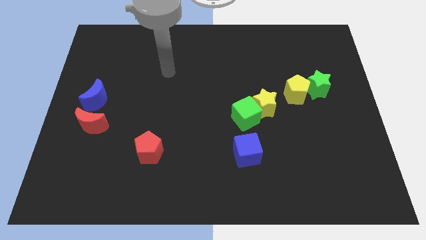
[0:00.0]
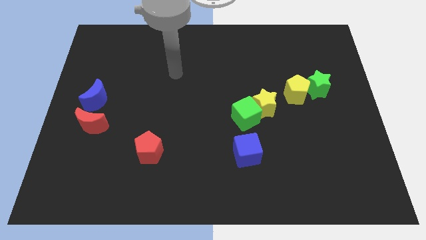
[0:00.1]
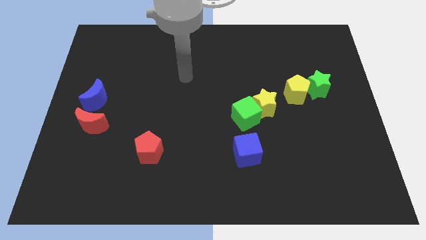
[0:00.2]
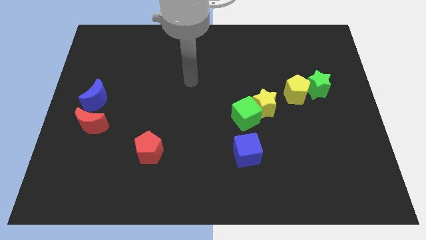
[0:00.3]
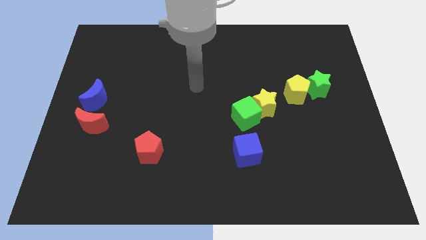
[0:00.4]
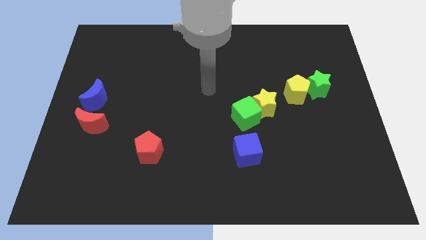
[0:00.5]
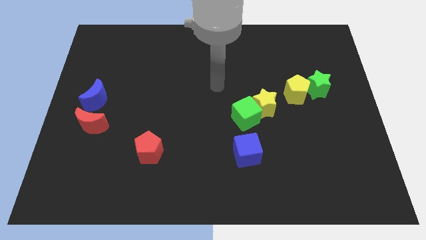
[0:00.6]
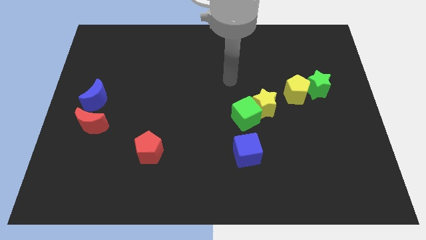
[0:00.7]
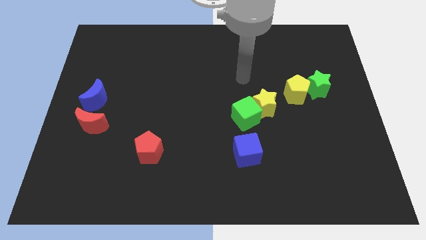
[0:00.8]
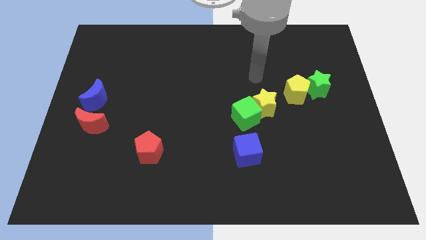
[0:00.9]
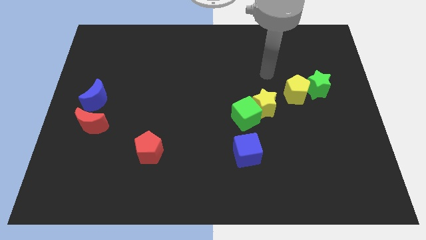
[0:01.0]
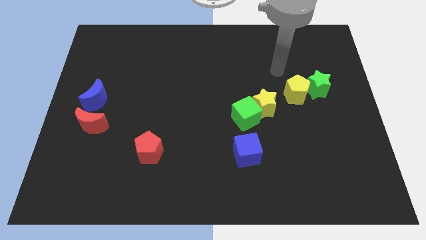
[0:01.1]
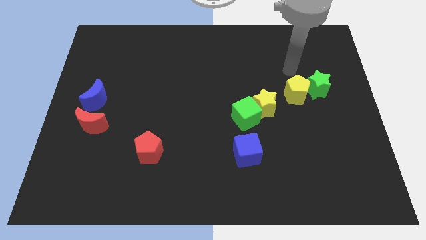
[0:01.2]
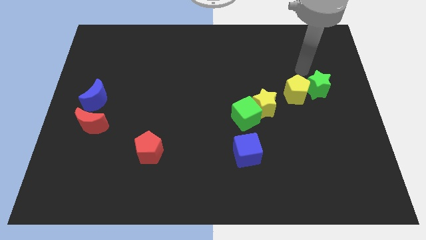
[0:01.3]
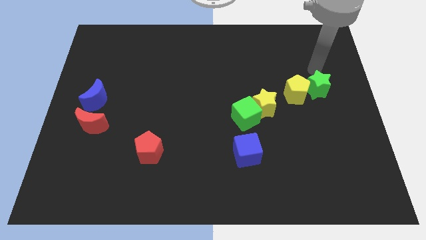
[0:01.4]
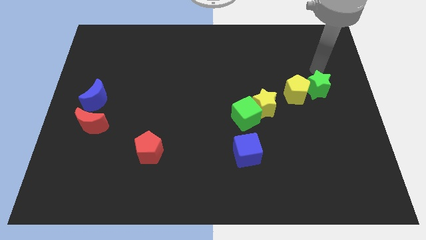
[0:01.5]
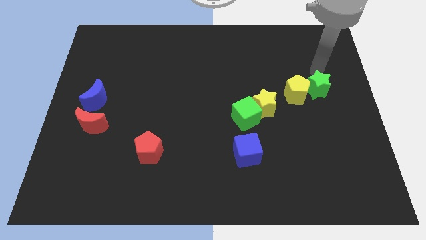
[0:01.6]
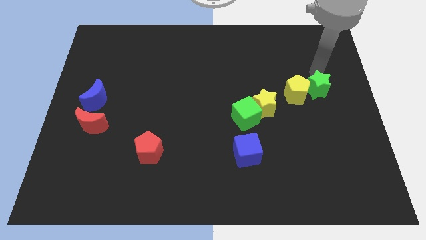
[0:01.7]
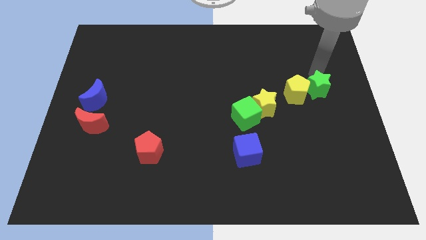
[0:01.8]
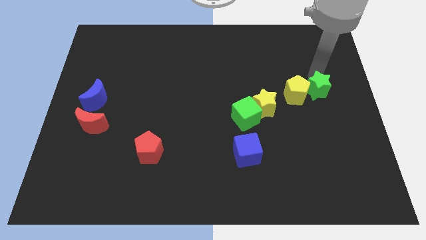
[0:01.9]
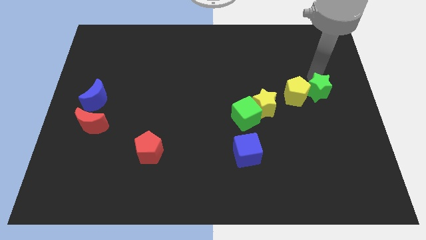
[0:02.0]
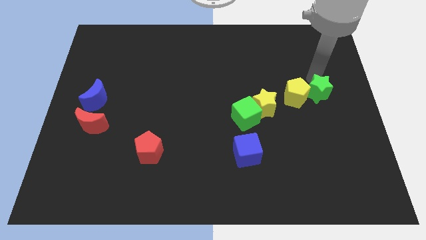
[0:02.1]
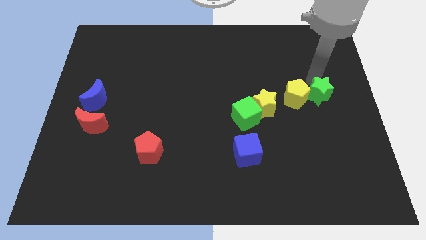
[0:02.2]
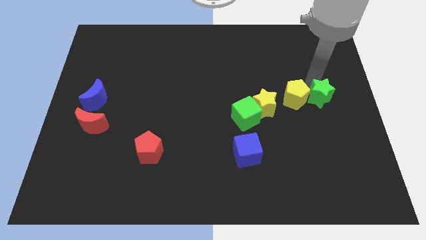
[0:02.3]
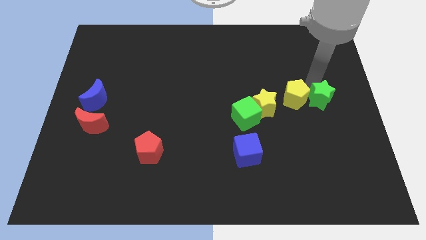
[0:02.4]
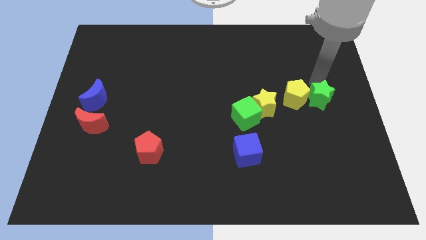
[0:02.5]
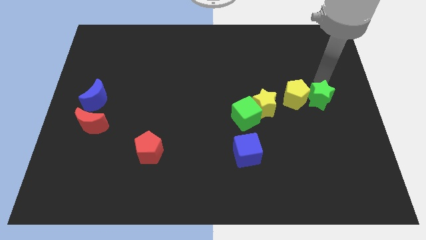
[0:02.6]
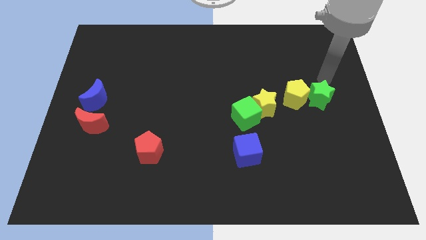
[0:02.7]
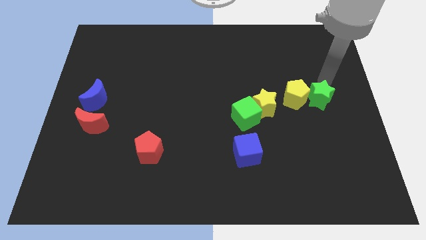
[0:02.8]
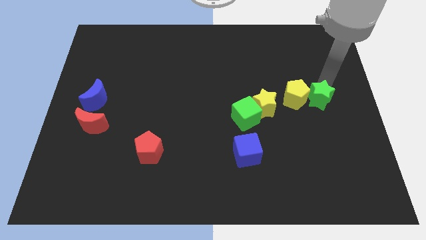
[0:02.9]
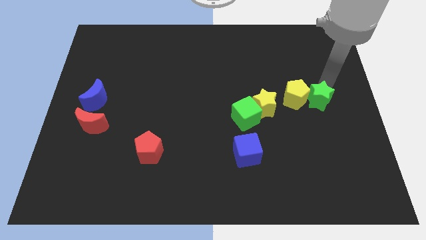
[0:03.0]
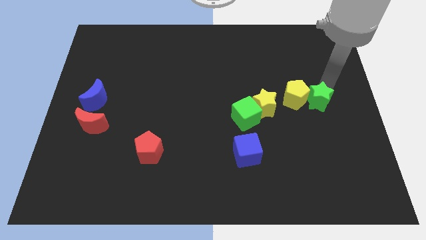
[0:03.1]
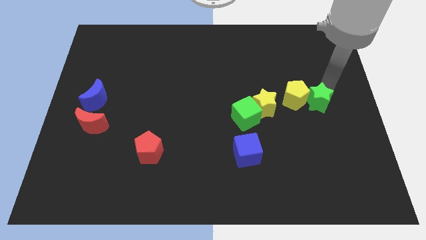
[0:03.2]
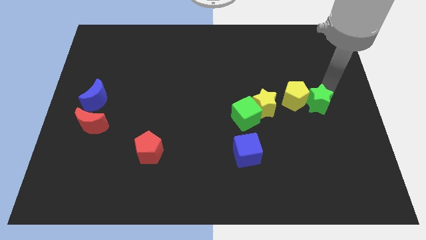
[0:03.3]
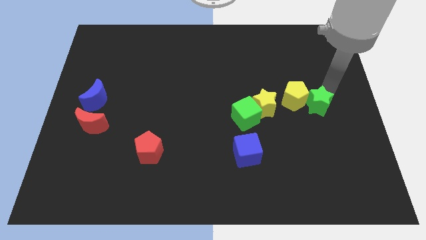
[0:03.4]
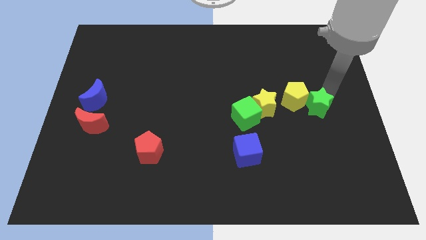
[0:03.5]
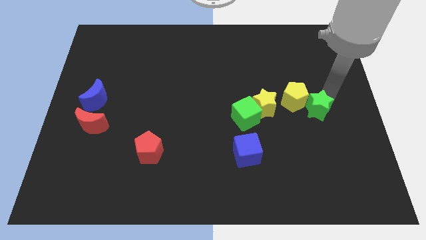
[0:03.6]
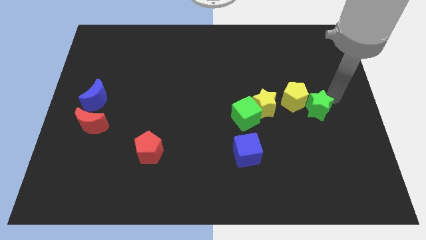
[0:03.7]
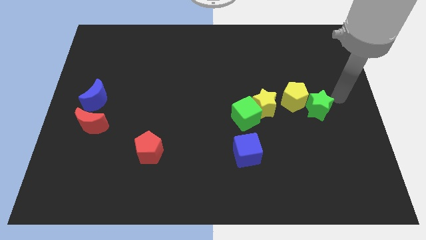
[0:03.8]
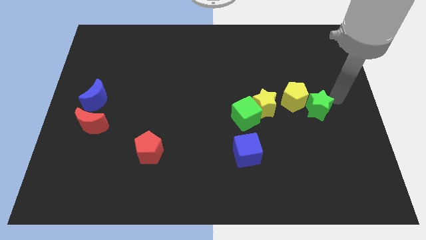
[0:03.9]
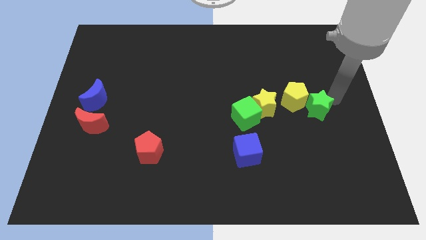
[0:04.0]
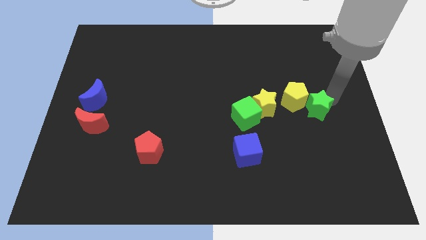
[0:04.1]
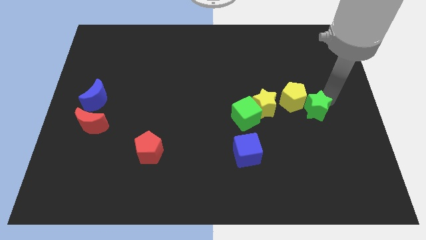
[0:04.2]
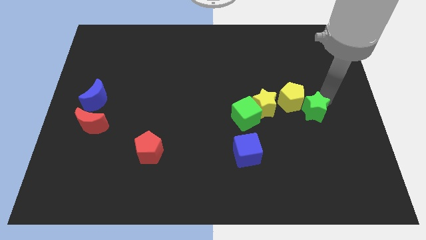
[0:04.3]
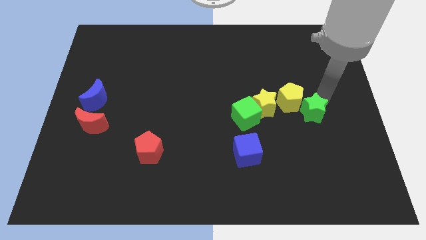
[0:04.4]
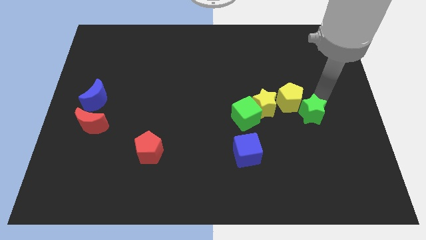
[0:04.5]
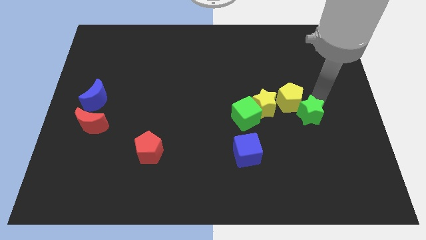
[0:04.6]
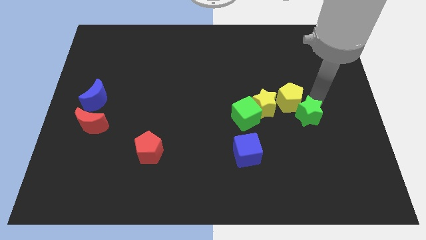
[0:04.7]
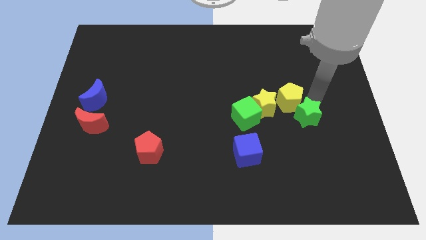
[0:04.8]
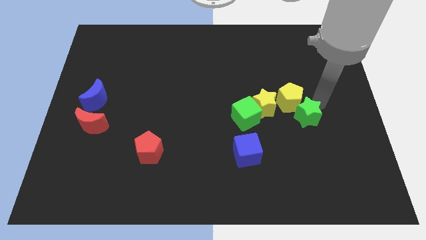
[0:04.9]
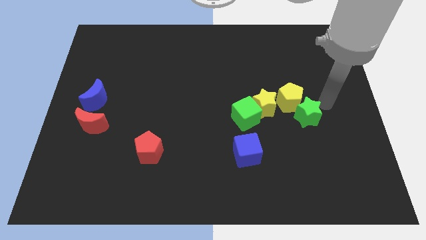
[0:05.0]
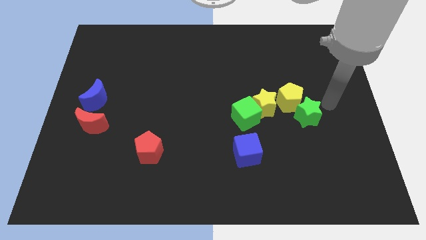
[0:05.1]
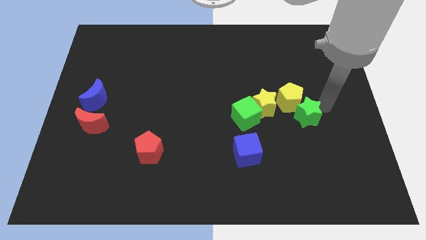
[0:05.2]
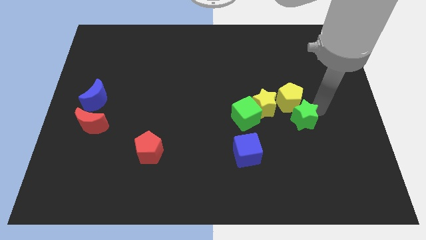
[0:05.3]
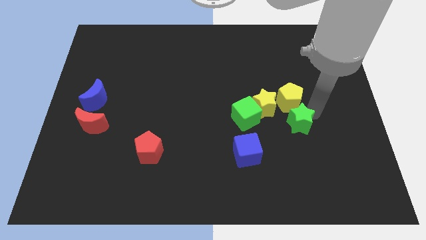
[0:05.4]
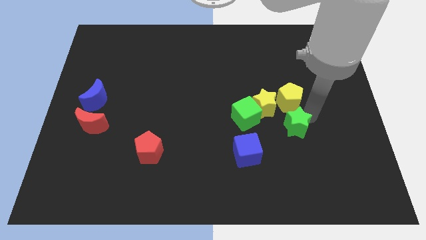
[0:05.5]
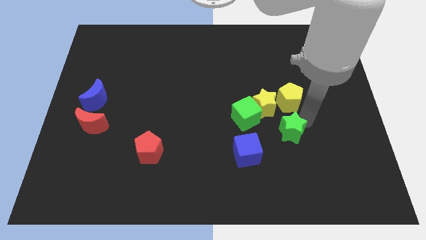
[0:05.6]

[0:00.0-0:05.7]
push the green star to the top right of the blue cube

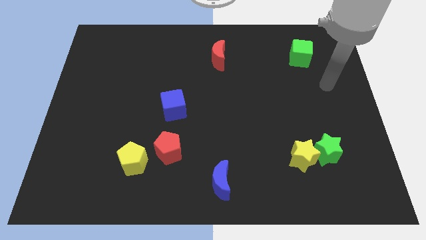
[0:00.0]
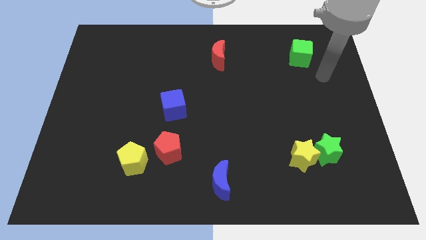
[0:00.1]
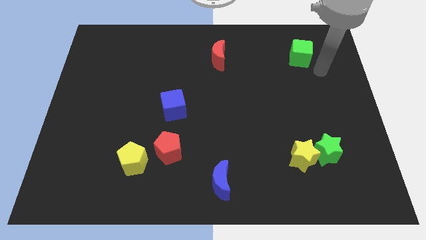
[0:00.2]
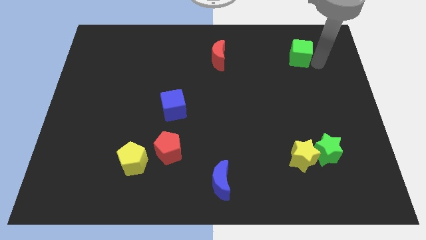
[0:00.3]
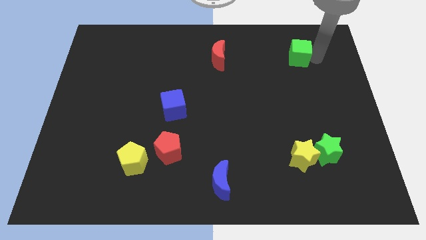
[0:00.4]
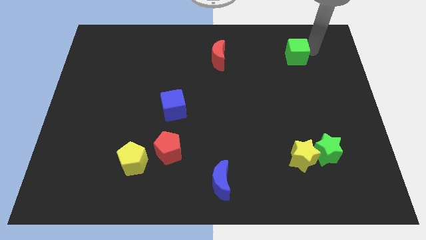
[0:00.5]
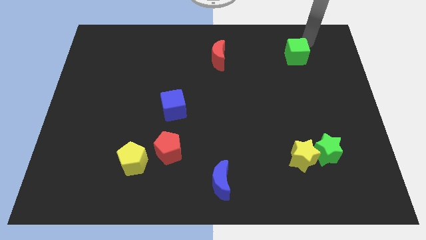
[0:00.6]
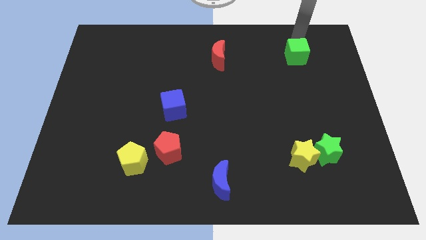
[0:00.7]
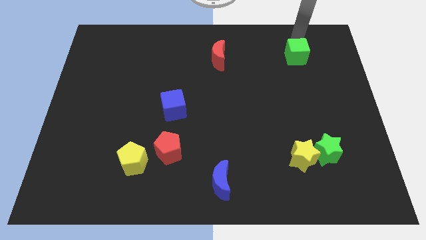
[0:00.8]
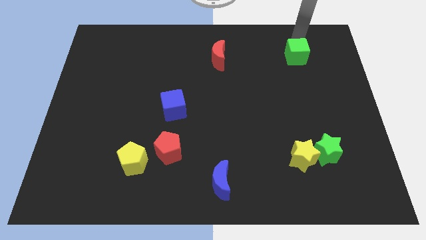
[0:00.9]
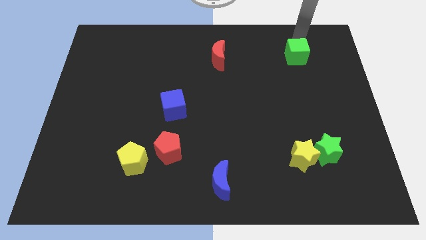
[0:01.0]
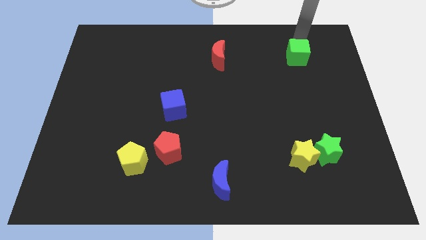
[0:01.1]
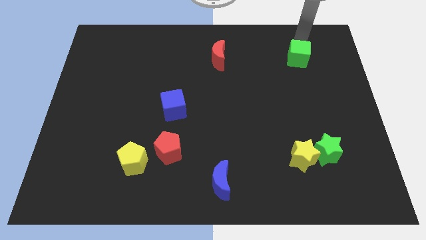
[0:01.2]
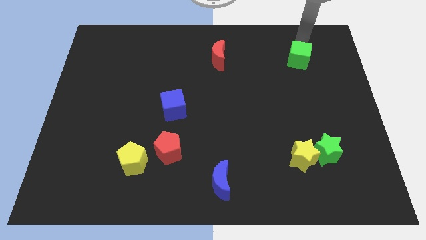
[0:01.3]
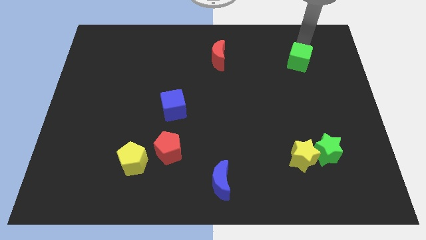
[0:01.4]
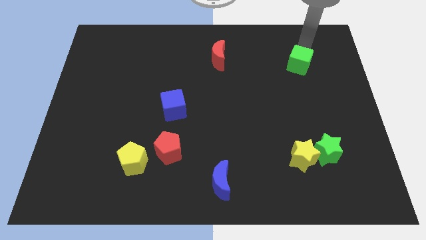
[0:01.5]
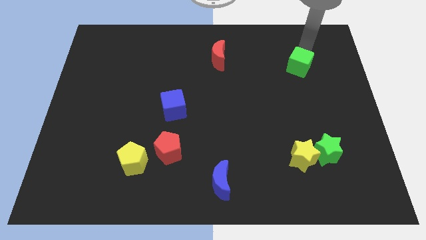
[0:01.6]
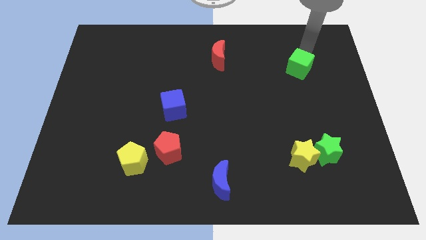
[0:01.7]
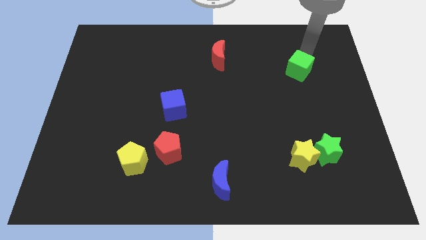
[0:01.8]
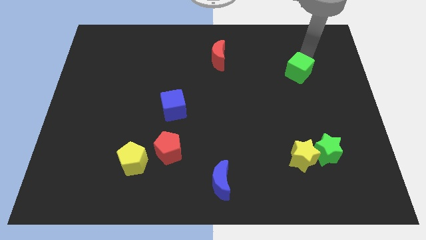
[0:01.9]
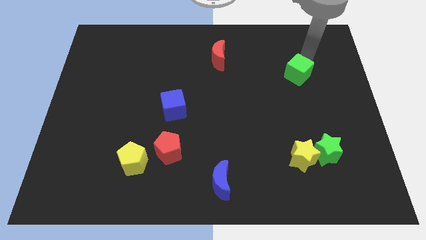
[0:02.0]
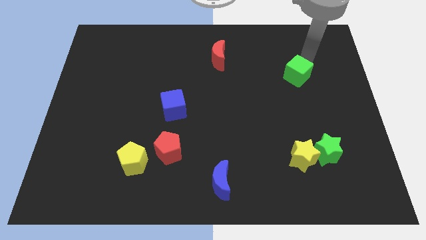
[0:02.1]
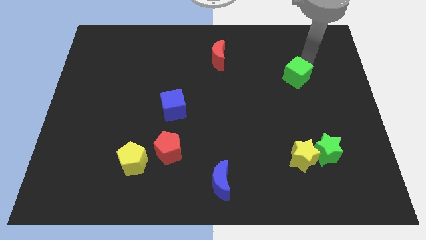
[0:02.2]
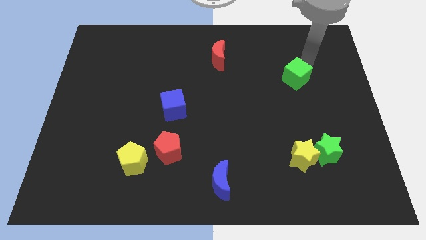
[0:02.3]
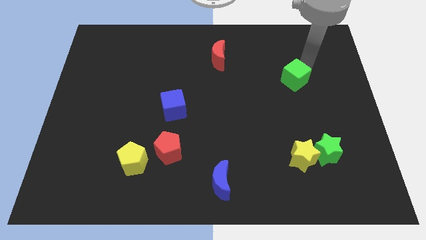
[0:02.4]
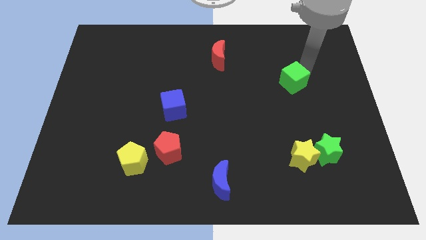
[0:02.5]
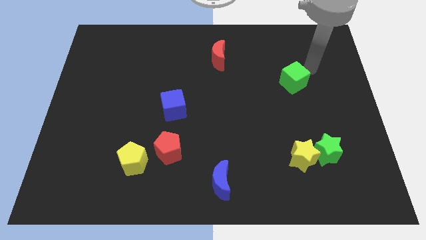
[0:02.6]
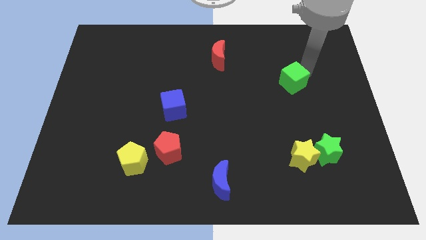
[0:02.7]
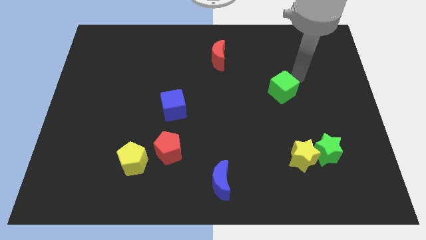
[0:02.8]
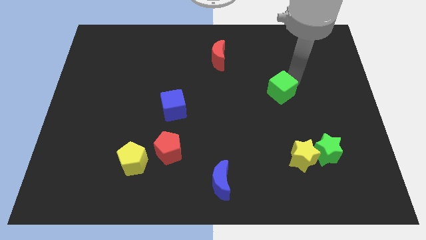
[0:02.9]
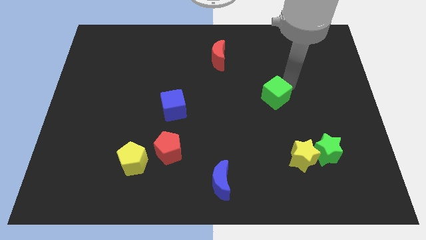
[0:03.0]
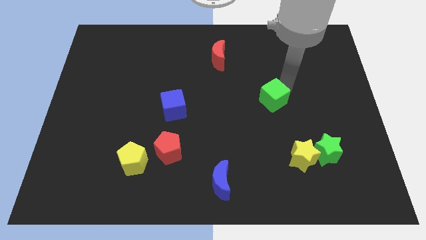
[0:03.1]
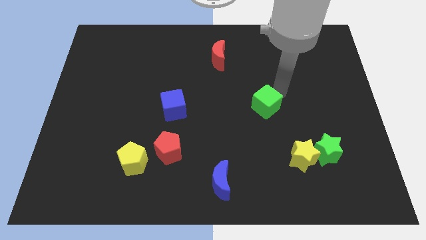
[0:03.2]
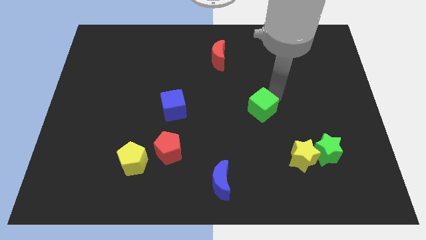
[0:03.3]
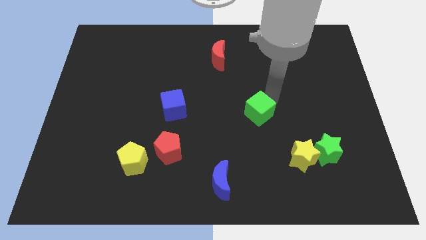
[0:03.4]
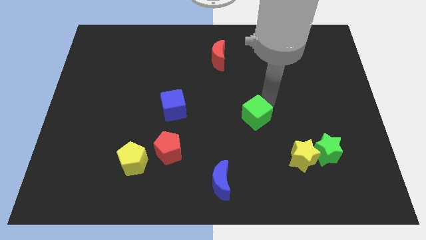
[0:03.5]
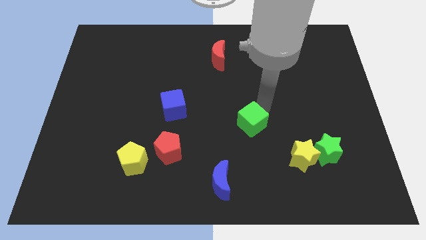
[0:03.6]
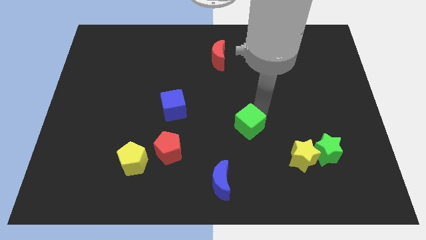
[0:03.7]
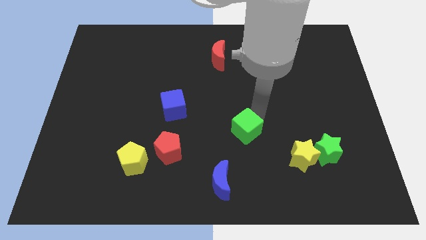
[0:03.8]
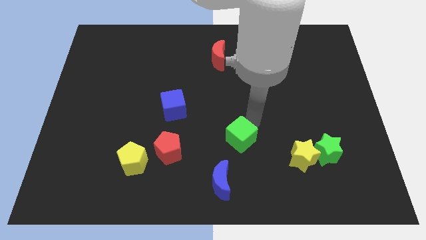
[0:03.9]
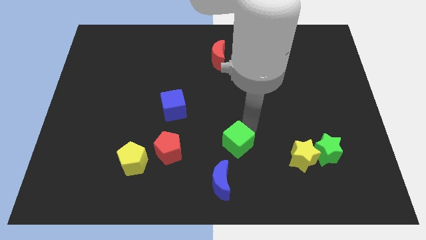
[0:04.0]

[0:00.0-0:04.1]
put the green cube to the right side of the red pentagon
